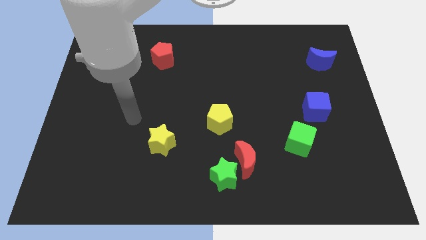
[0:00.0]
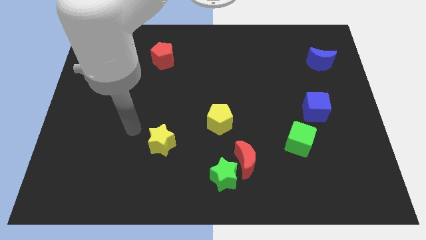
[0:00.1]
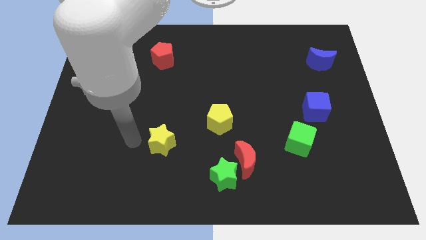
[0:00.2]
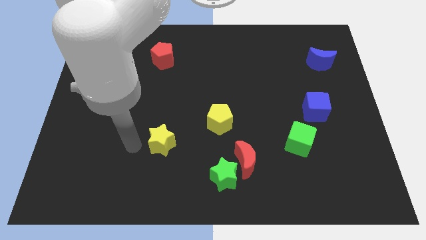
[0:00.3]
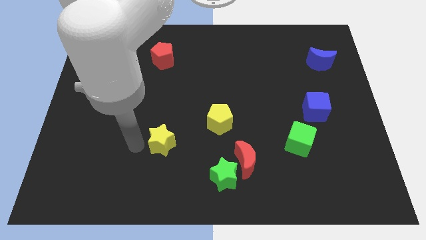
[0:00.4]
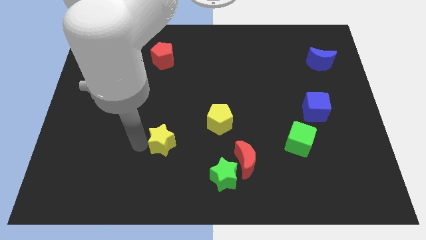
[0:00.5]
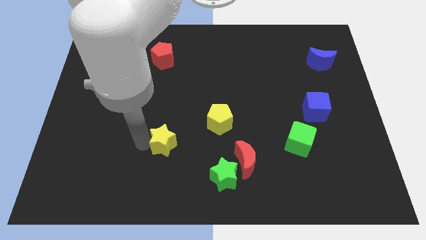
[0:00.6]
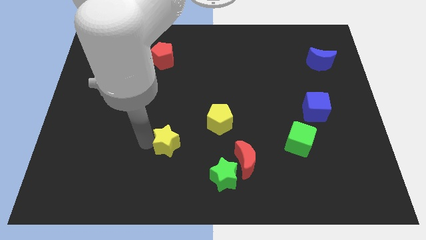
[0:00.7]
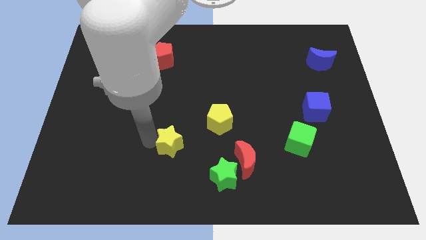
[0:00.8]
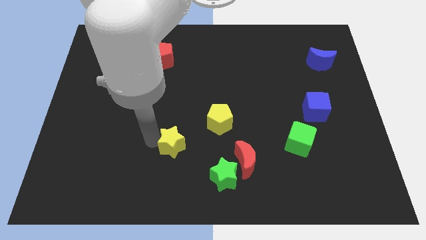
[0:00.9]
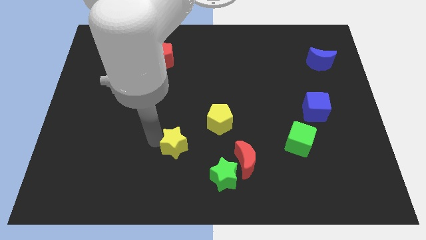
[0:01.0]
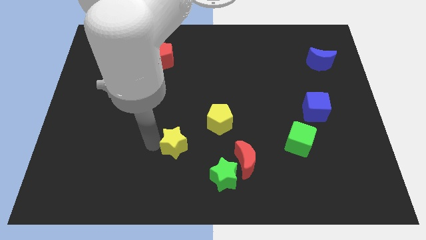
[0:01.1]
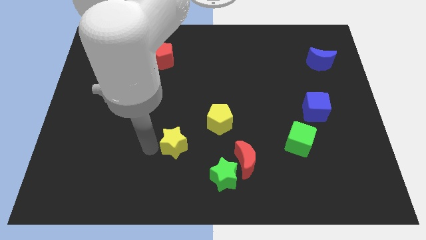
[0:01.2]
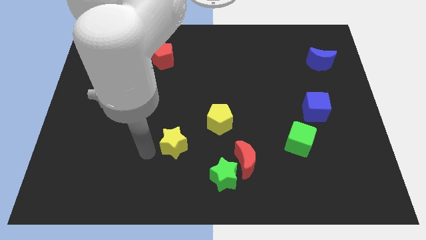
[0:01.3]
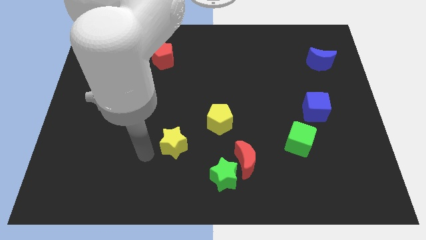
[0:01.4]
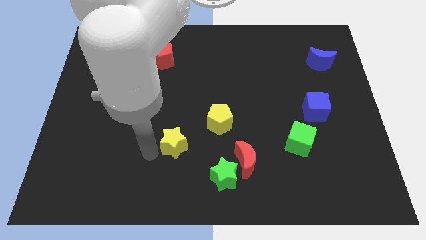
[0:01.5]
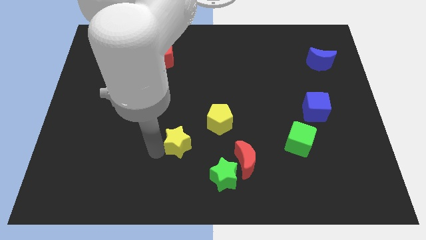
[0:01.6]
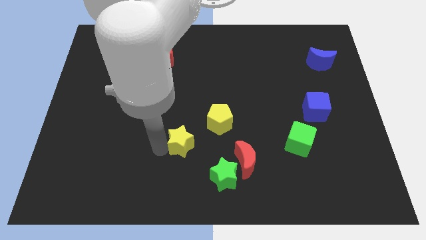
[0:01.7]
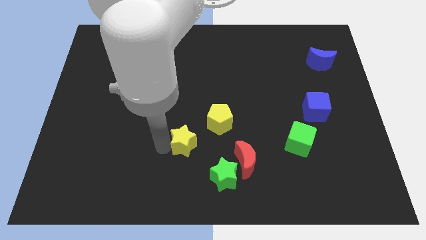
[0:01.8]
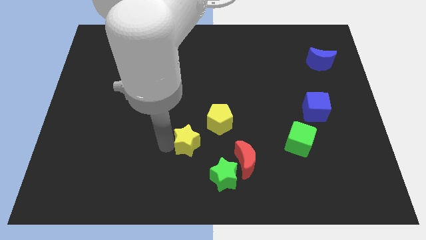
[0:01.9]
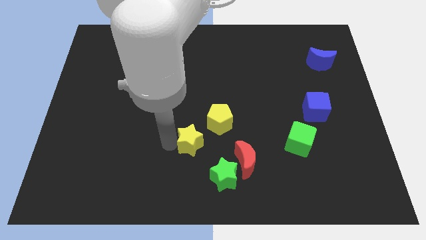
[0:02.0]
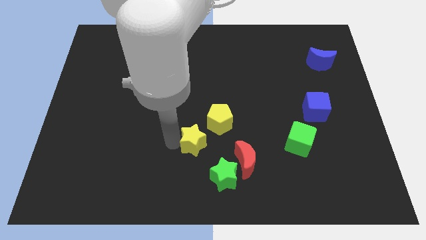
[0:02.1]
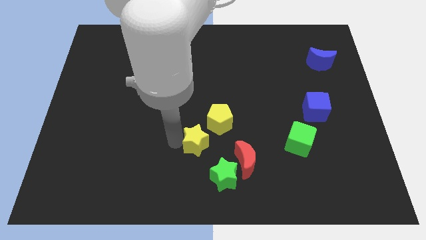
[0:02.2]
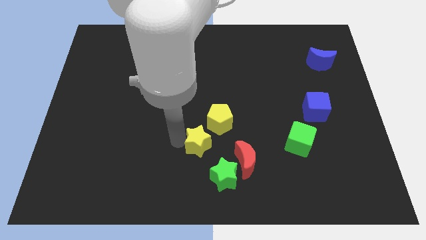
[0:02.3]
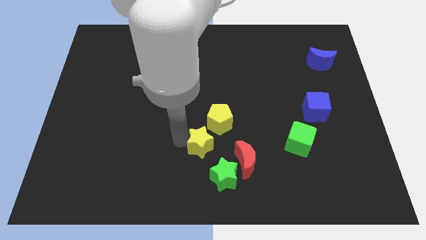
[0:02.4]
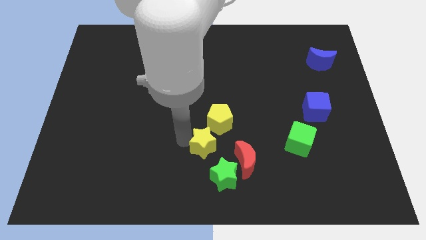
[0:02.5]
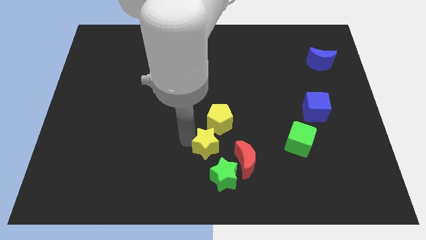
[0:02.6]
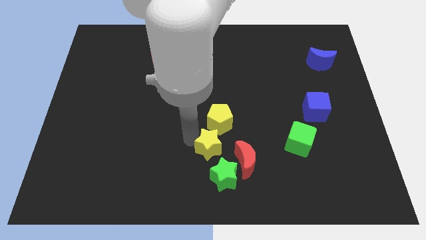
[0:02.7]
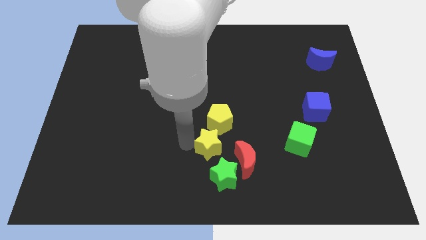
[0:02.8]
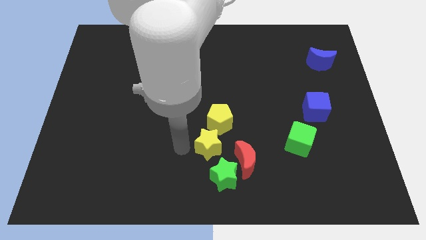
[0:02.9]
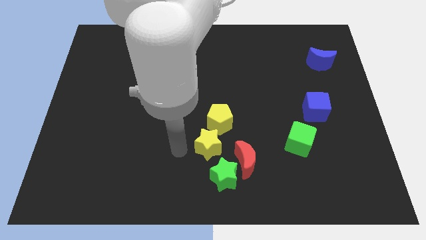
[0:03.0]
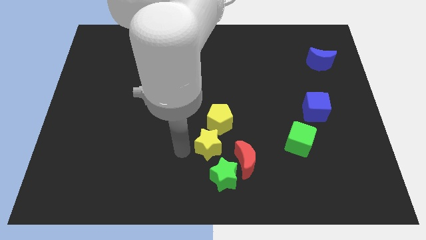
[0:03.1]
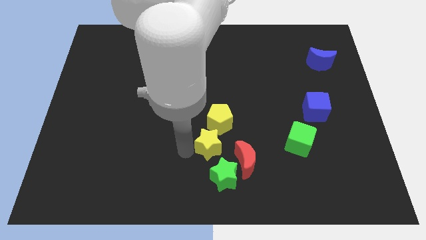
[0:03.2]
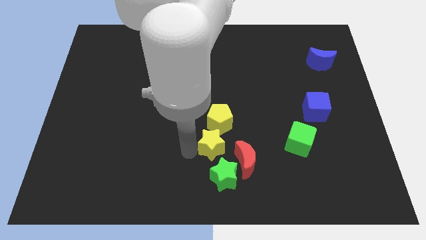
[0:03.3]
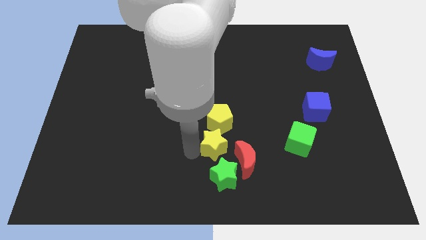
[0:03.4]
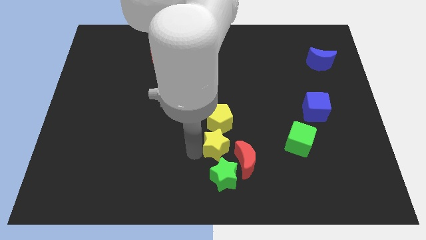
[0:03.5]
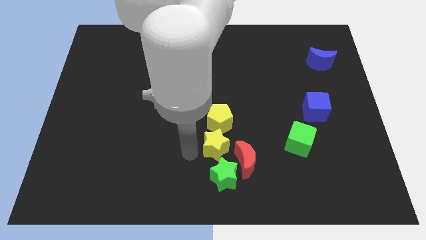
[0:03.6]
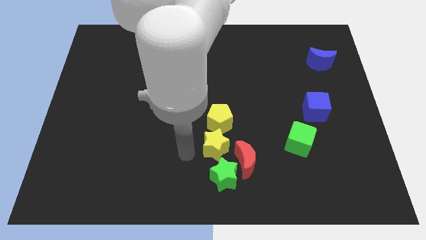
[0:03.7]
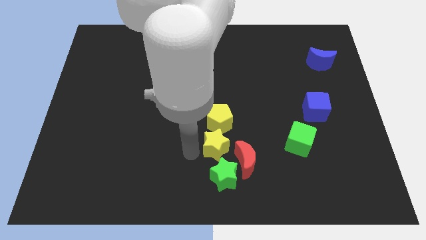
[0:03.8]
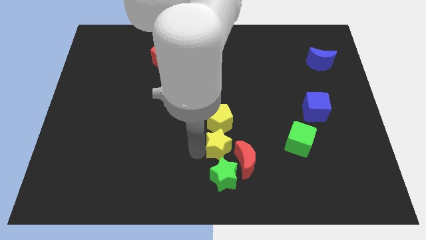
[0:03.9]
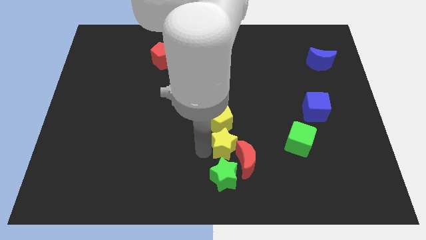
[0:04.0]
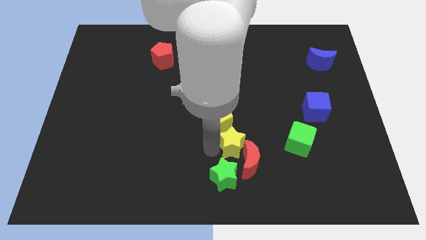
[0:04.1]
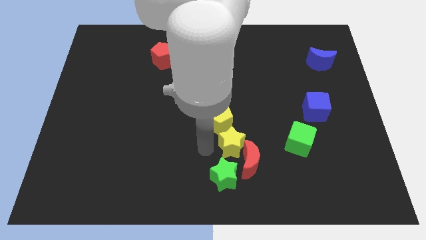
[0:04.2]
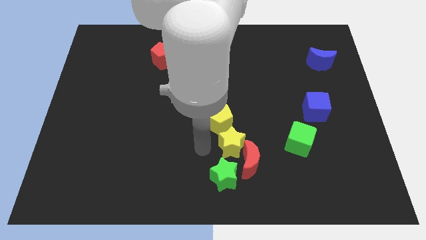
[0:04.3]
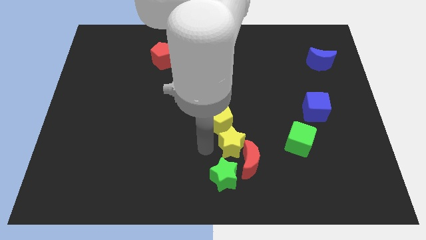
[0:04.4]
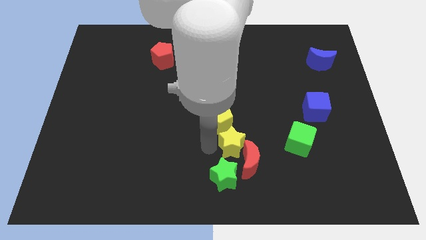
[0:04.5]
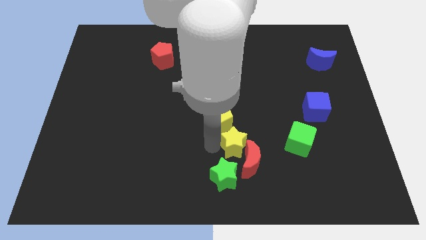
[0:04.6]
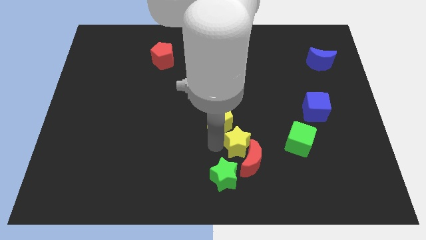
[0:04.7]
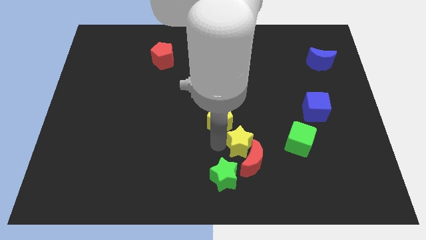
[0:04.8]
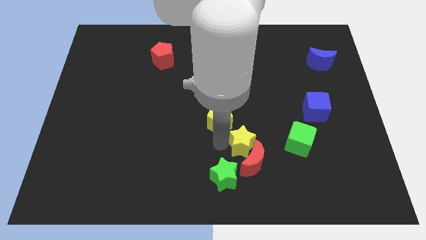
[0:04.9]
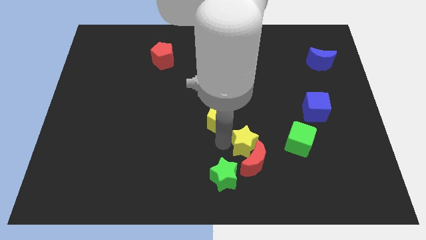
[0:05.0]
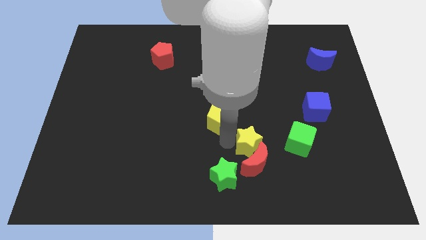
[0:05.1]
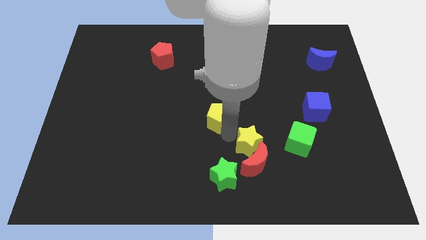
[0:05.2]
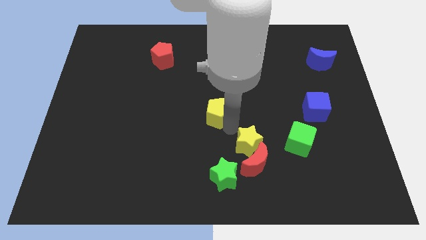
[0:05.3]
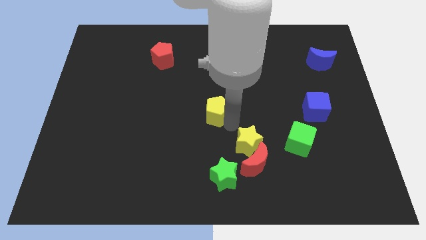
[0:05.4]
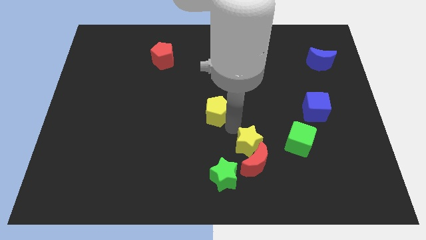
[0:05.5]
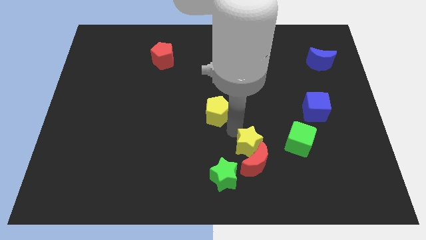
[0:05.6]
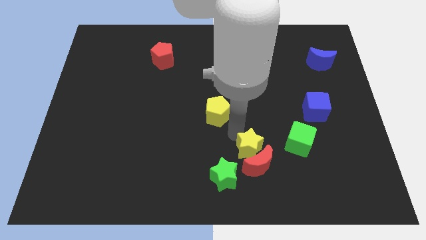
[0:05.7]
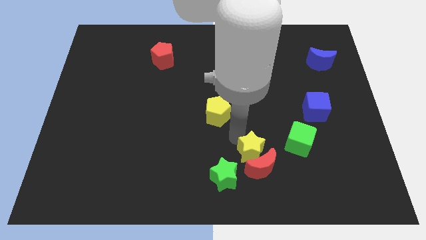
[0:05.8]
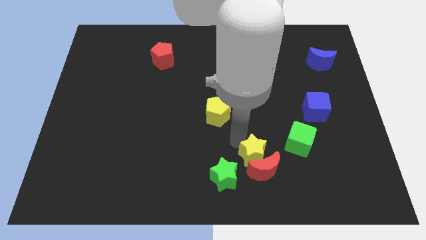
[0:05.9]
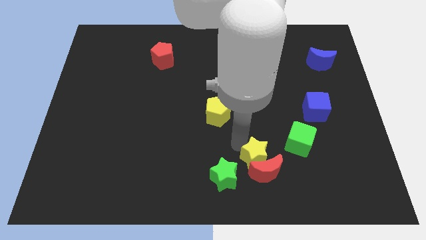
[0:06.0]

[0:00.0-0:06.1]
put the yellow star right of the green star

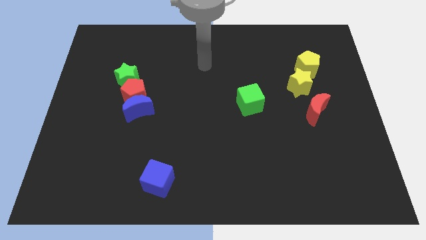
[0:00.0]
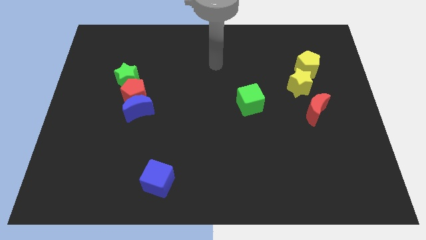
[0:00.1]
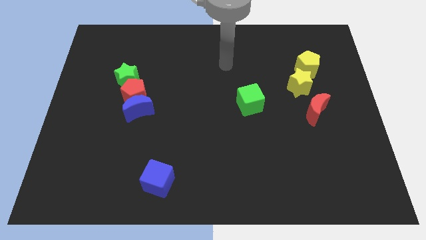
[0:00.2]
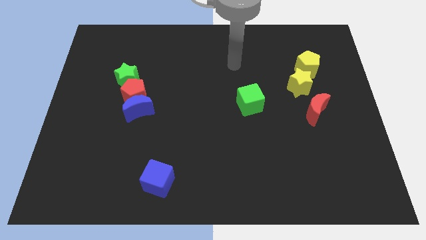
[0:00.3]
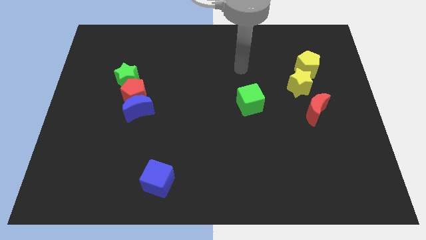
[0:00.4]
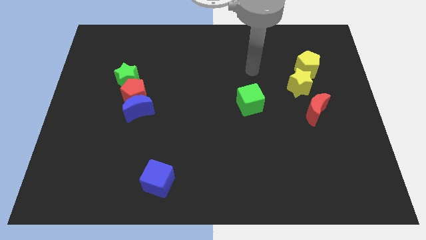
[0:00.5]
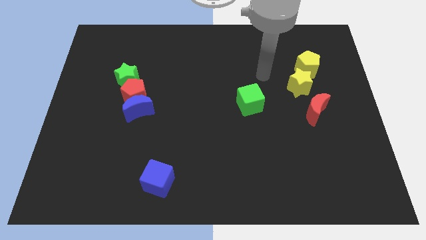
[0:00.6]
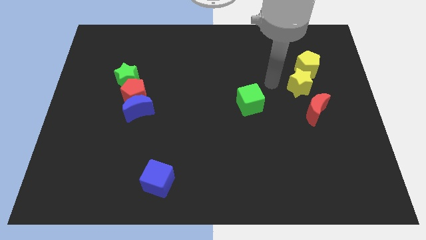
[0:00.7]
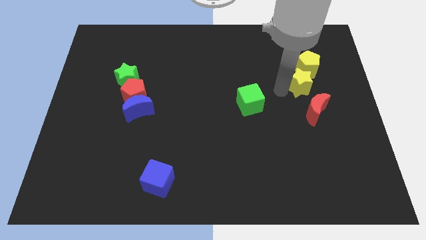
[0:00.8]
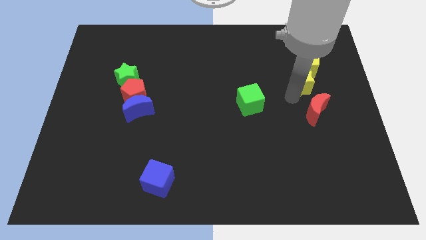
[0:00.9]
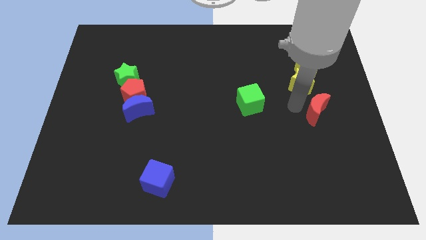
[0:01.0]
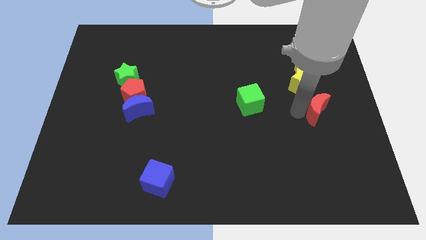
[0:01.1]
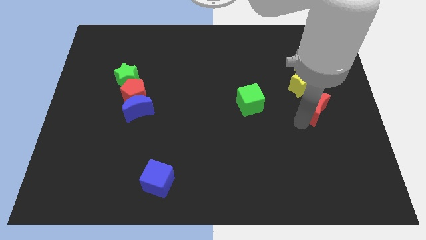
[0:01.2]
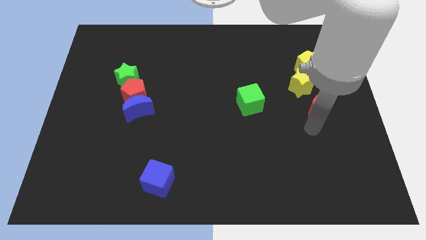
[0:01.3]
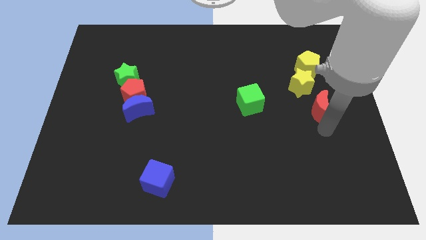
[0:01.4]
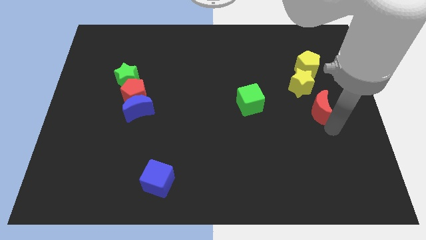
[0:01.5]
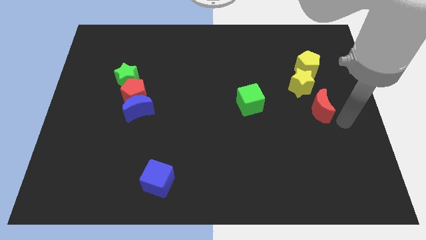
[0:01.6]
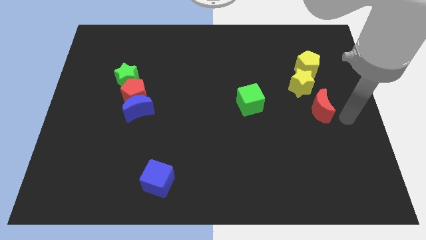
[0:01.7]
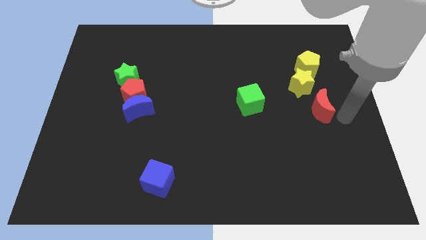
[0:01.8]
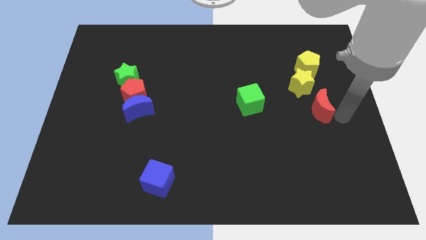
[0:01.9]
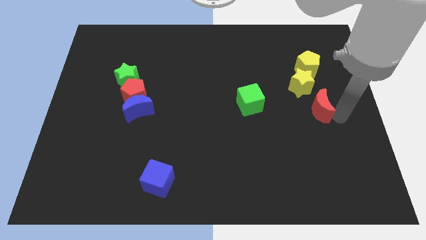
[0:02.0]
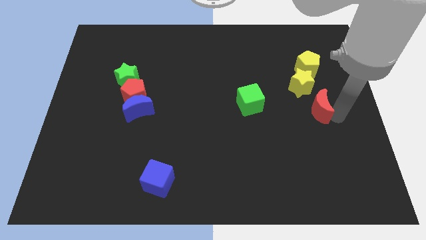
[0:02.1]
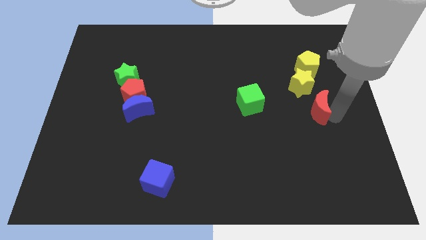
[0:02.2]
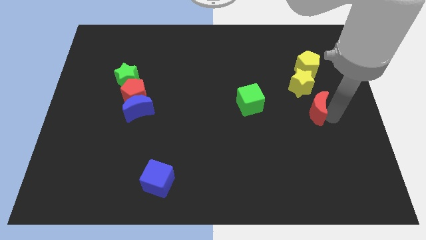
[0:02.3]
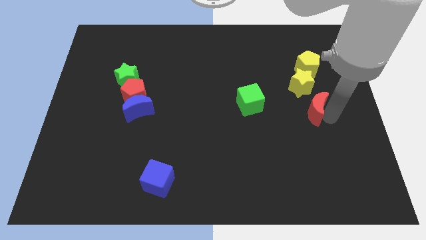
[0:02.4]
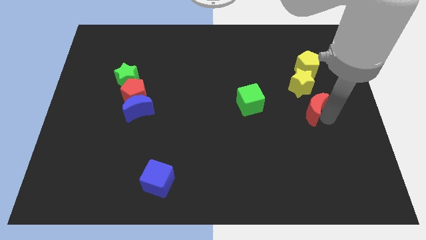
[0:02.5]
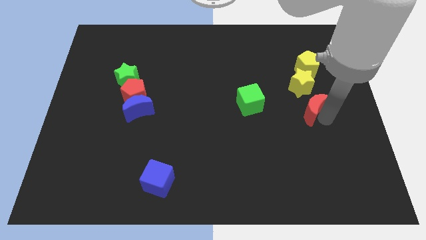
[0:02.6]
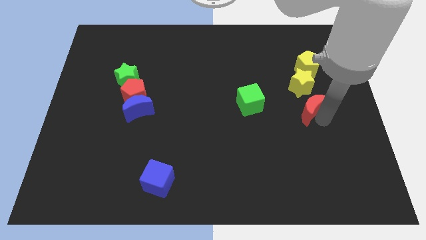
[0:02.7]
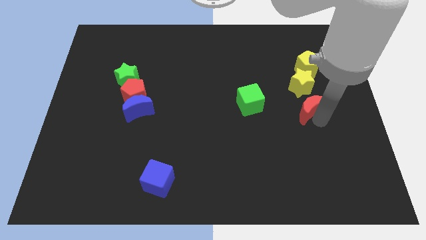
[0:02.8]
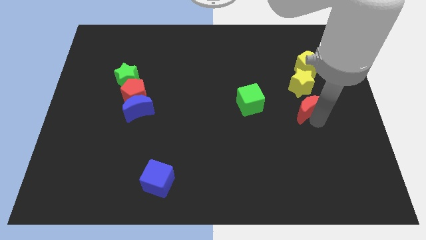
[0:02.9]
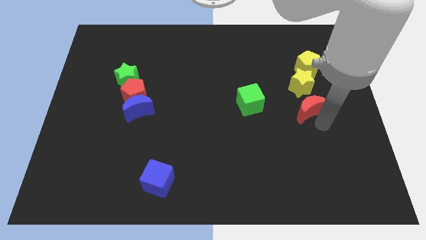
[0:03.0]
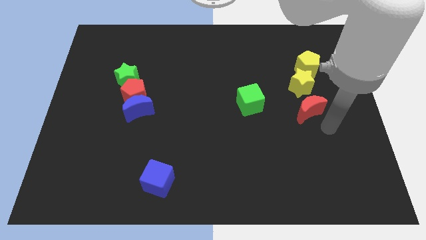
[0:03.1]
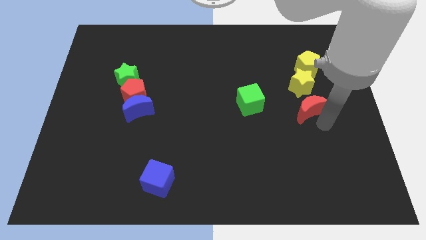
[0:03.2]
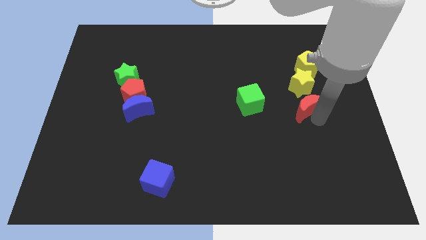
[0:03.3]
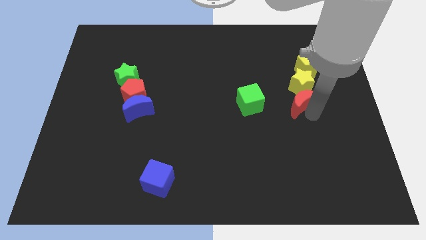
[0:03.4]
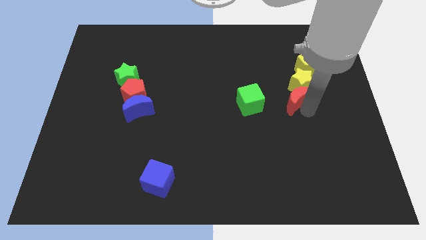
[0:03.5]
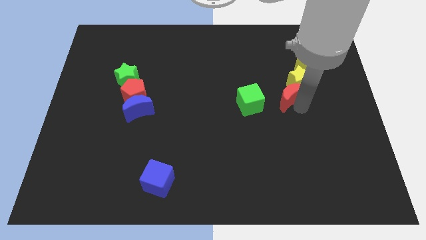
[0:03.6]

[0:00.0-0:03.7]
push the red moon diagonally down and to the left of the yellow pentagon
